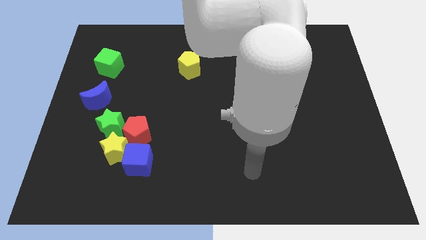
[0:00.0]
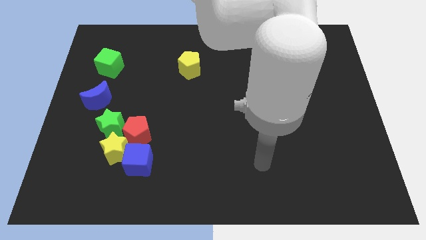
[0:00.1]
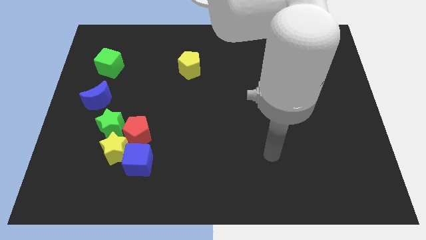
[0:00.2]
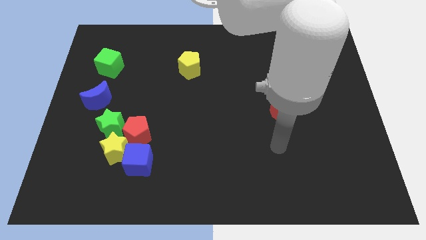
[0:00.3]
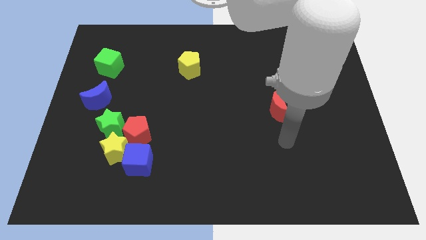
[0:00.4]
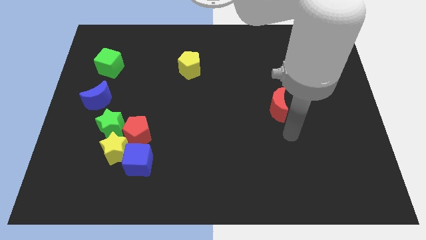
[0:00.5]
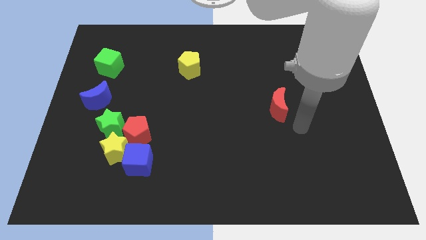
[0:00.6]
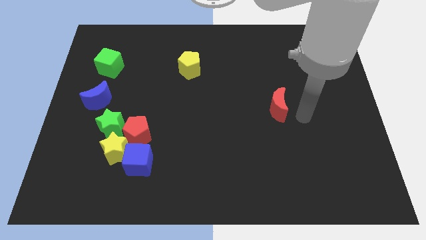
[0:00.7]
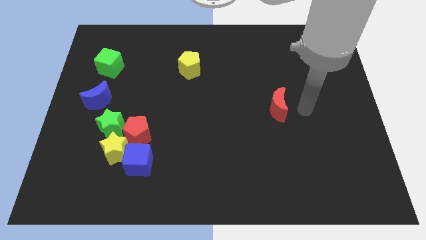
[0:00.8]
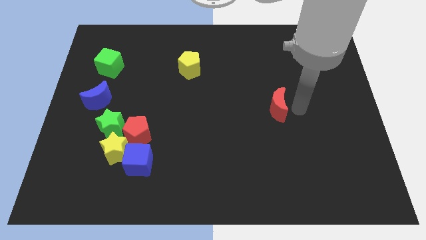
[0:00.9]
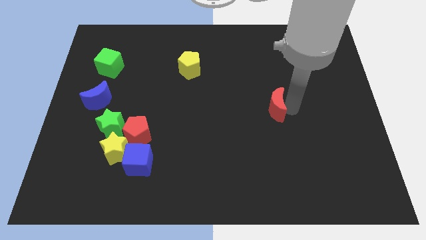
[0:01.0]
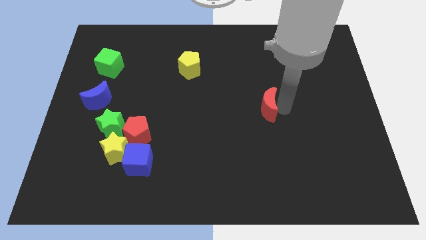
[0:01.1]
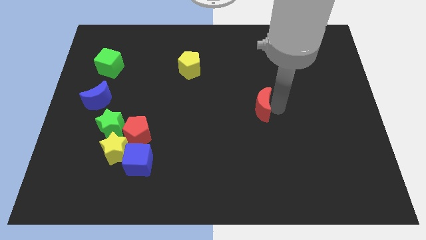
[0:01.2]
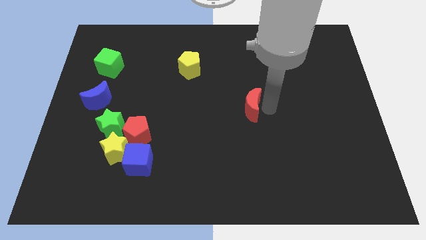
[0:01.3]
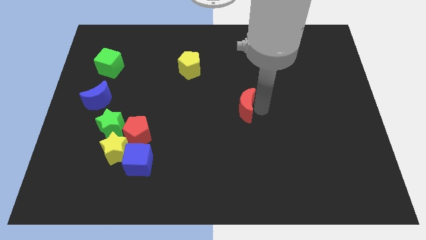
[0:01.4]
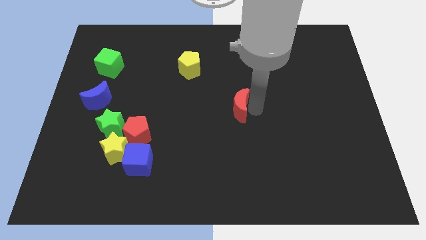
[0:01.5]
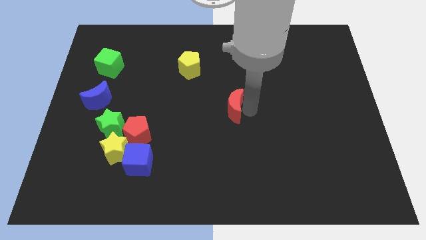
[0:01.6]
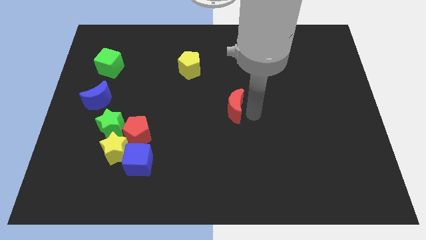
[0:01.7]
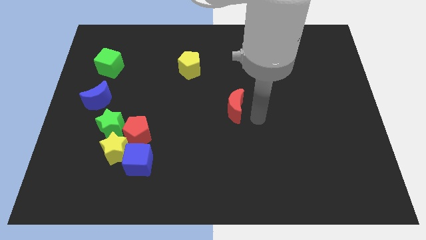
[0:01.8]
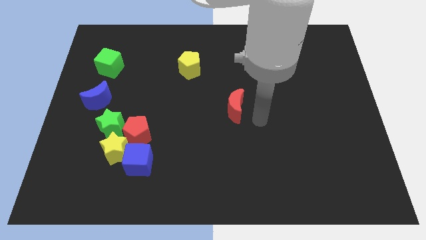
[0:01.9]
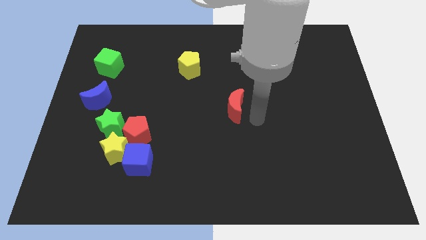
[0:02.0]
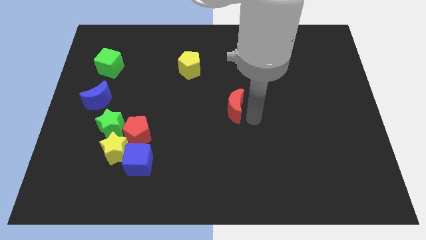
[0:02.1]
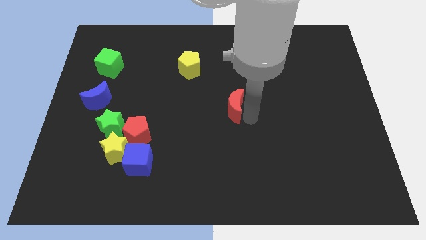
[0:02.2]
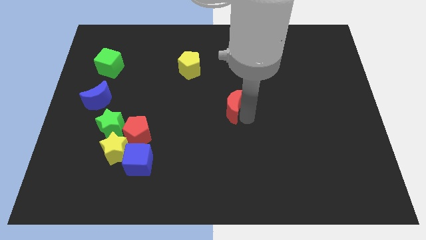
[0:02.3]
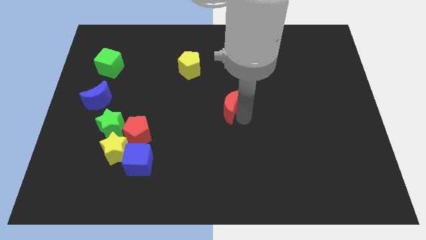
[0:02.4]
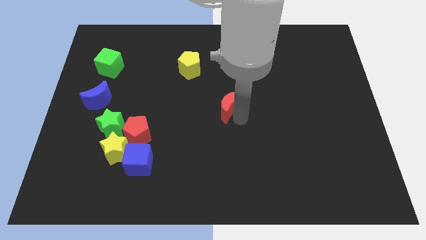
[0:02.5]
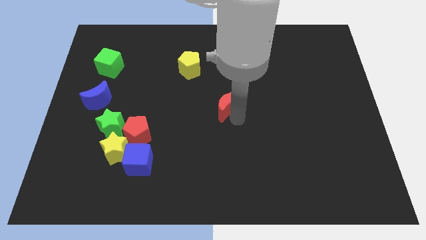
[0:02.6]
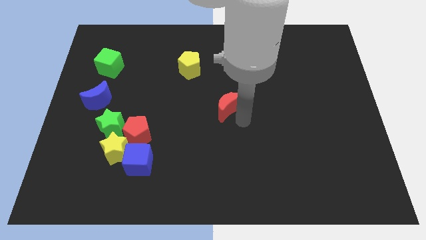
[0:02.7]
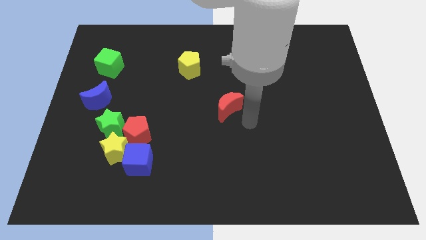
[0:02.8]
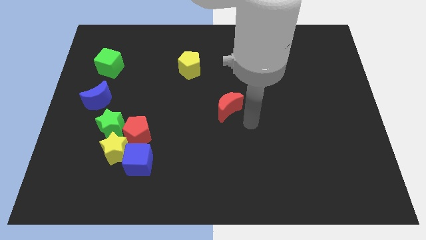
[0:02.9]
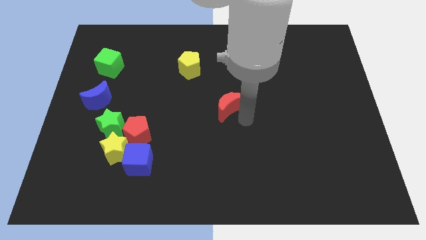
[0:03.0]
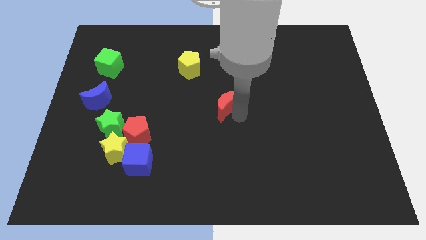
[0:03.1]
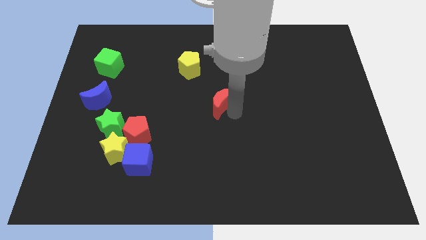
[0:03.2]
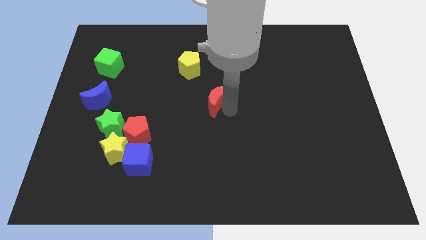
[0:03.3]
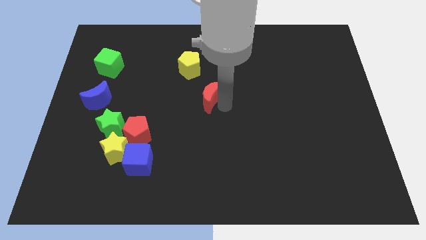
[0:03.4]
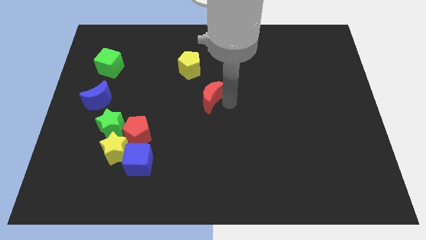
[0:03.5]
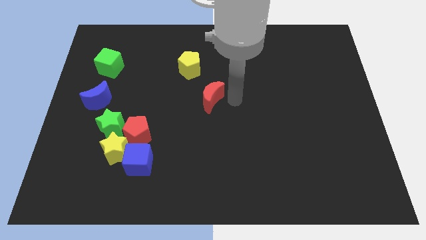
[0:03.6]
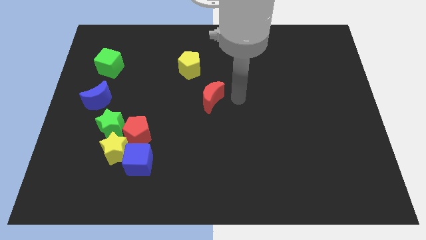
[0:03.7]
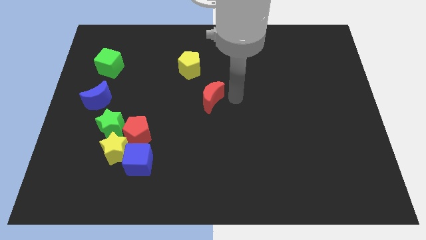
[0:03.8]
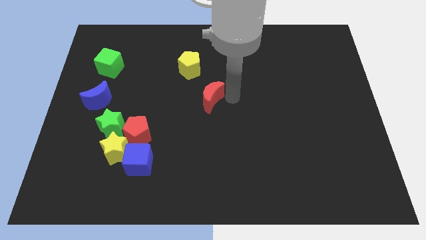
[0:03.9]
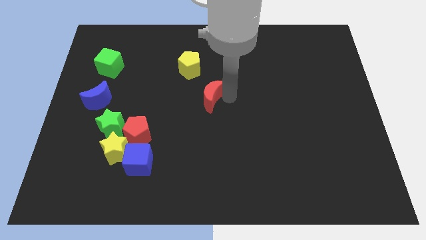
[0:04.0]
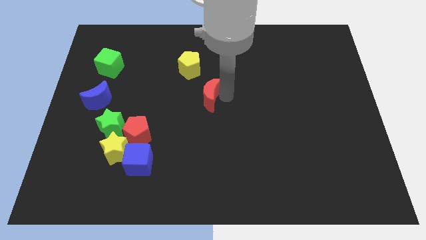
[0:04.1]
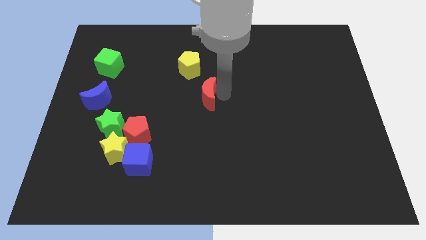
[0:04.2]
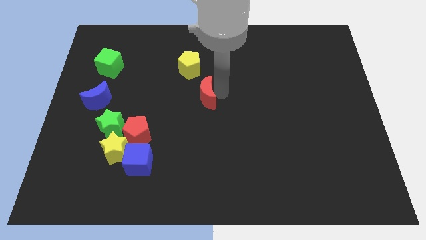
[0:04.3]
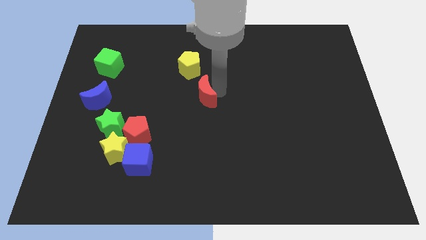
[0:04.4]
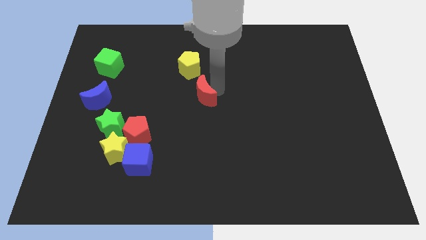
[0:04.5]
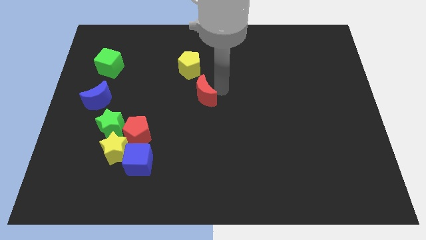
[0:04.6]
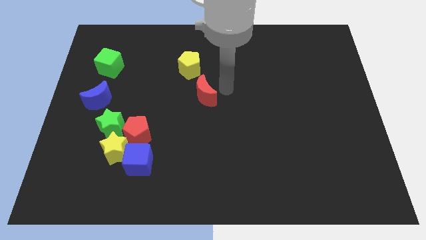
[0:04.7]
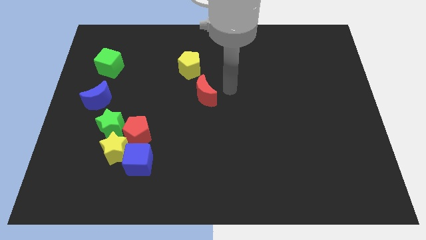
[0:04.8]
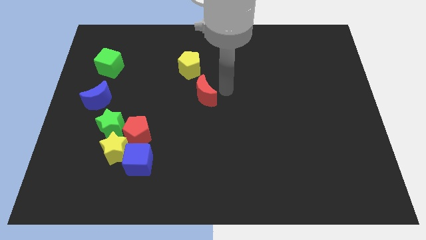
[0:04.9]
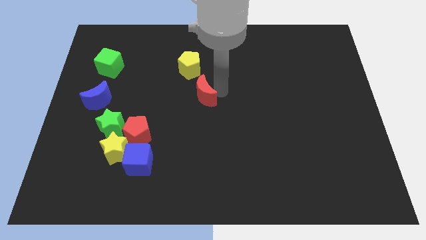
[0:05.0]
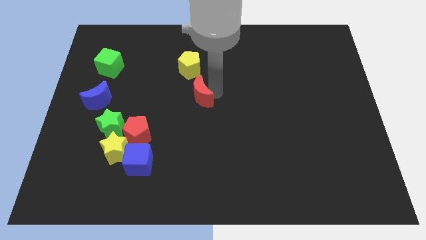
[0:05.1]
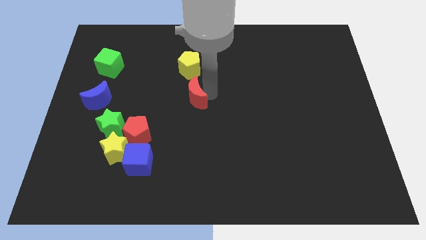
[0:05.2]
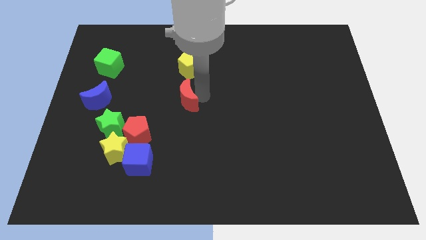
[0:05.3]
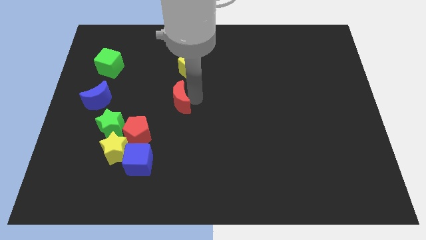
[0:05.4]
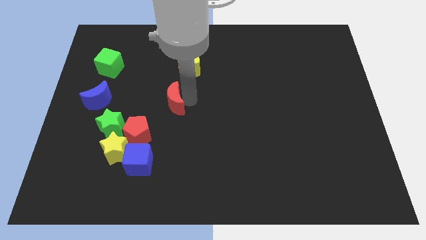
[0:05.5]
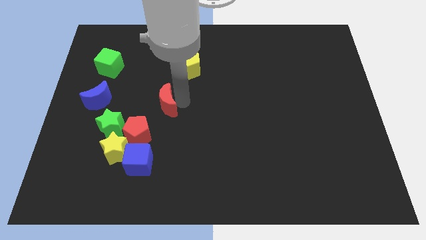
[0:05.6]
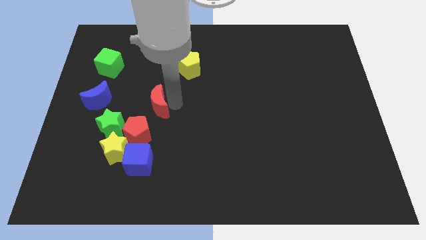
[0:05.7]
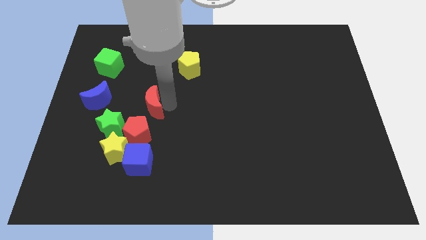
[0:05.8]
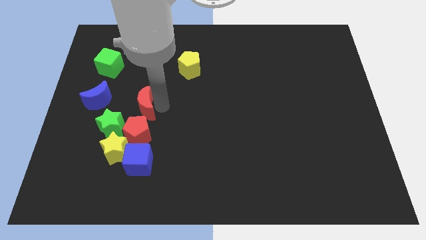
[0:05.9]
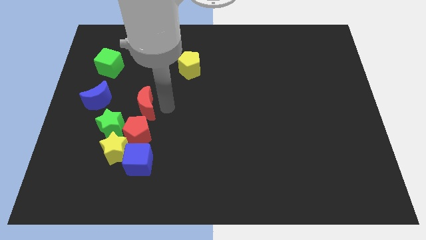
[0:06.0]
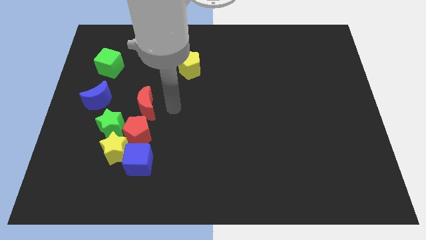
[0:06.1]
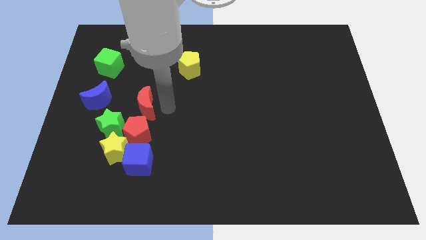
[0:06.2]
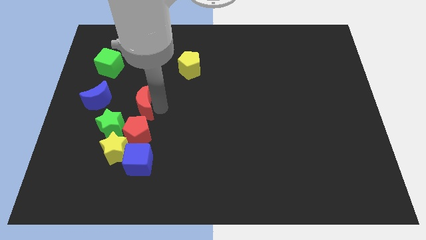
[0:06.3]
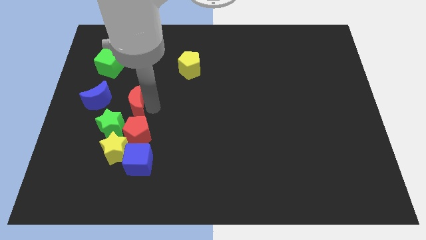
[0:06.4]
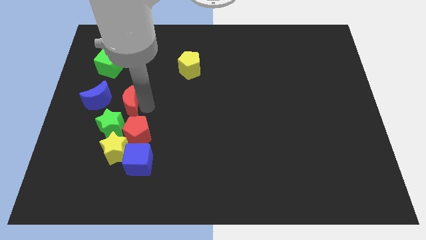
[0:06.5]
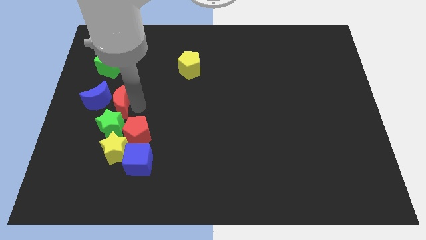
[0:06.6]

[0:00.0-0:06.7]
move the red moon towards the blue moon
